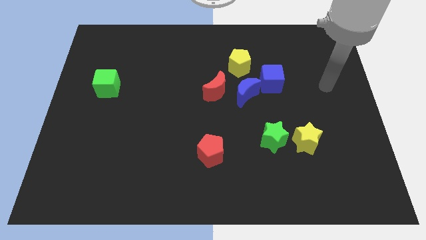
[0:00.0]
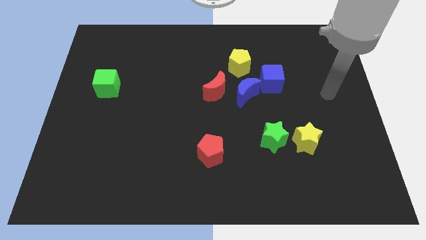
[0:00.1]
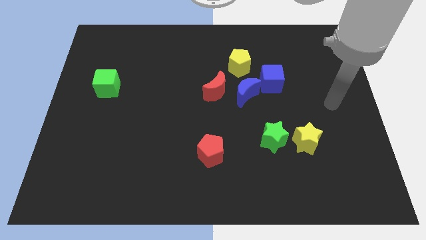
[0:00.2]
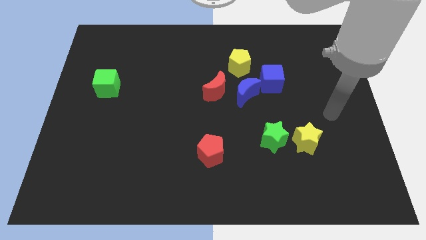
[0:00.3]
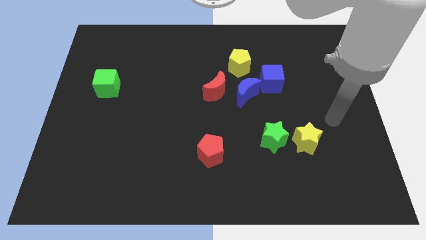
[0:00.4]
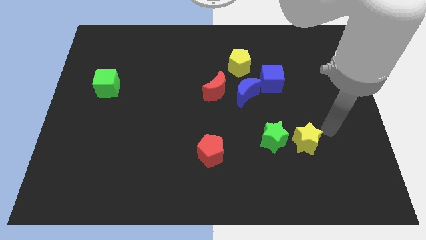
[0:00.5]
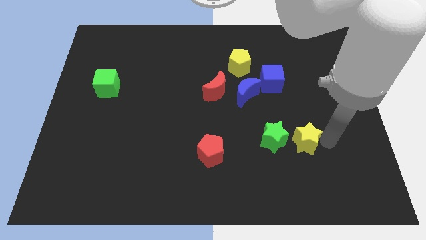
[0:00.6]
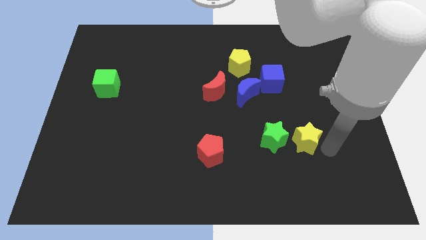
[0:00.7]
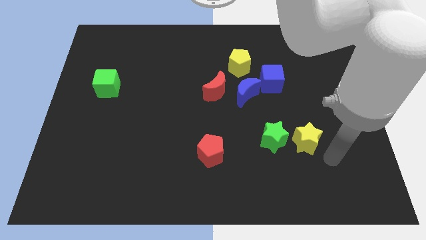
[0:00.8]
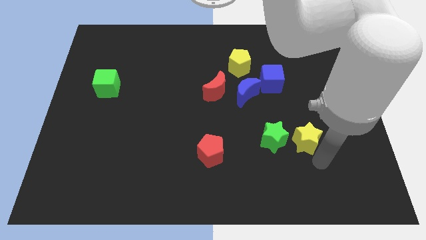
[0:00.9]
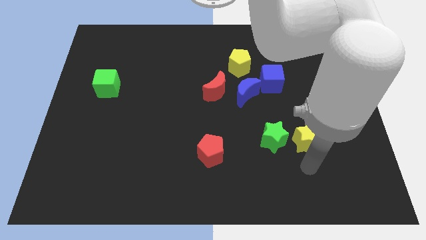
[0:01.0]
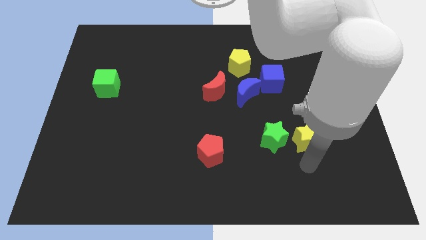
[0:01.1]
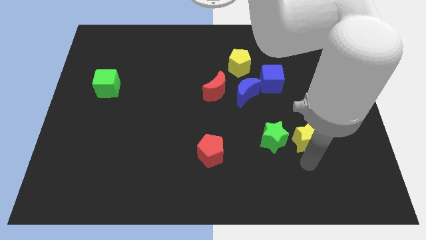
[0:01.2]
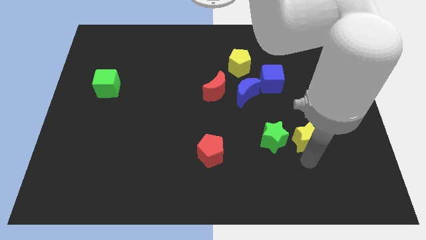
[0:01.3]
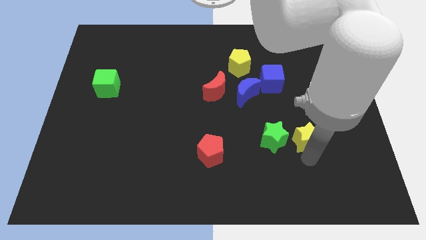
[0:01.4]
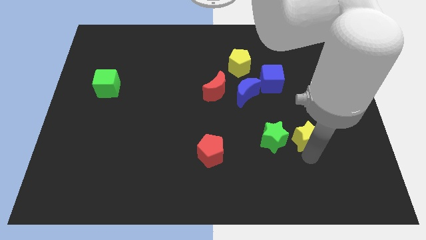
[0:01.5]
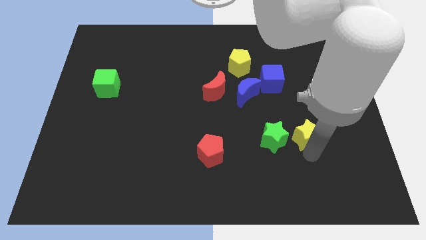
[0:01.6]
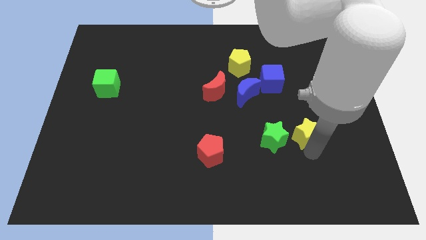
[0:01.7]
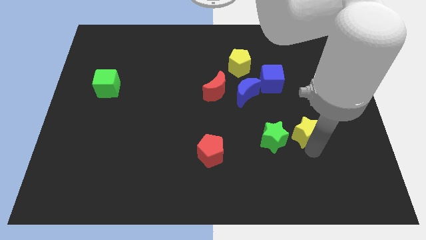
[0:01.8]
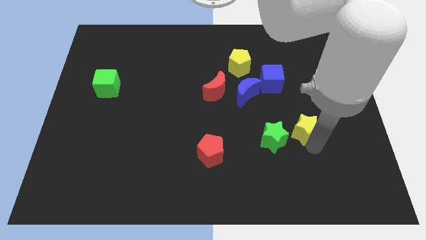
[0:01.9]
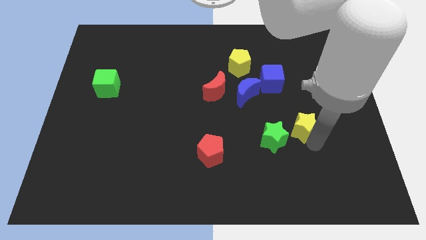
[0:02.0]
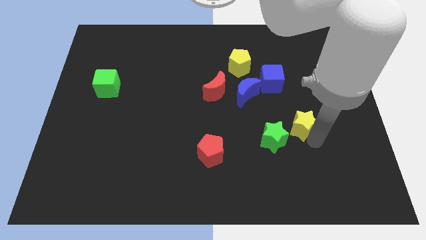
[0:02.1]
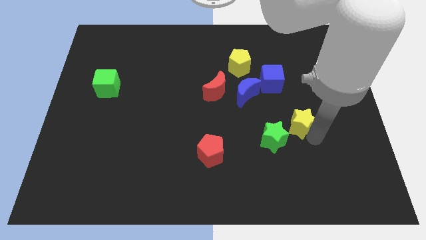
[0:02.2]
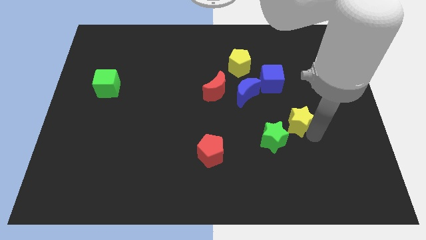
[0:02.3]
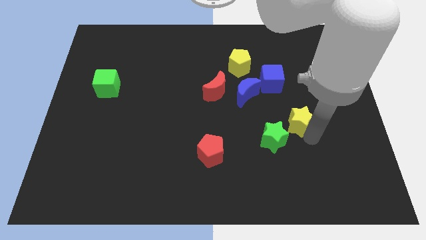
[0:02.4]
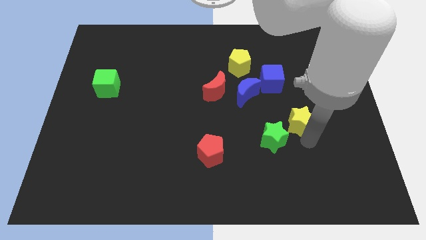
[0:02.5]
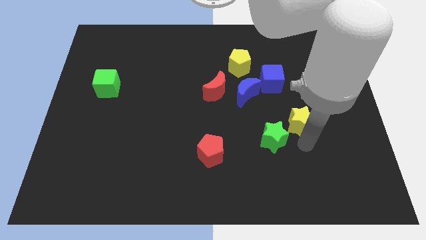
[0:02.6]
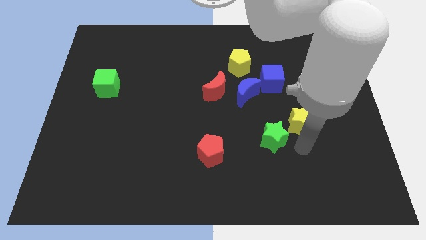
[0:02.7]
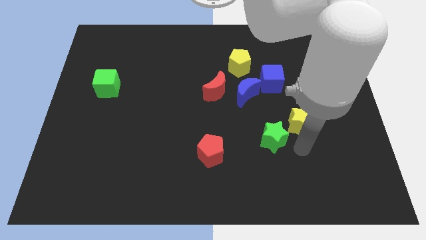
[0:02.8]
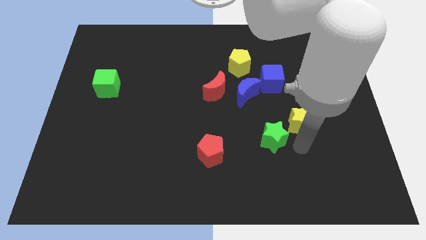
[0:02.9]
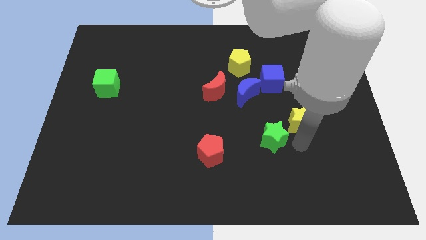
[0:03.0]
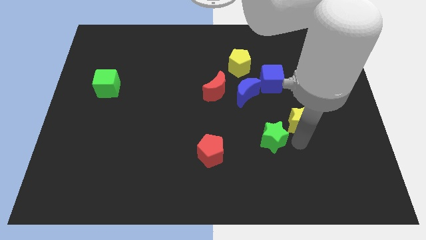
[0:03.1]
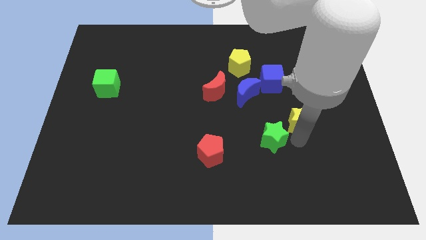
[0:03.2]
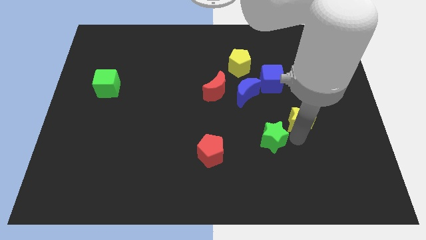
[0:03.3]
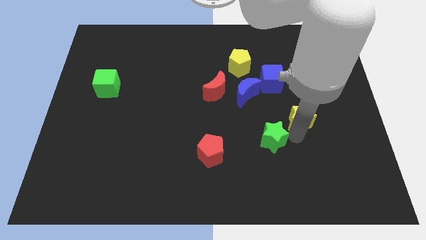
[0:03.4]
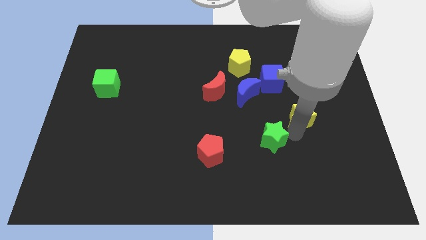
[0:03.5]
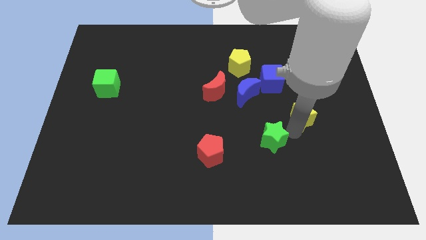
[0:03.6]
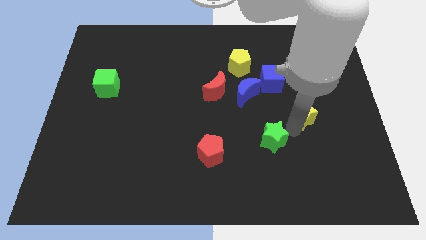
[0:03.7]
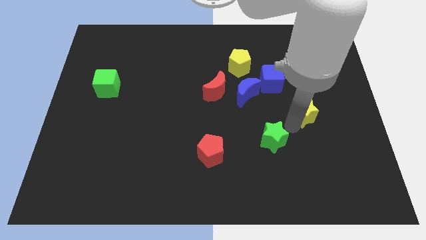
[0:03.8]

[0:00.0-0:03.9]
slightly move the yellow star upwards

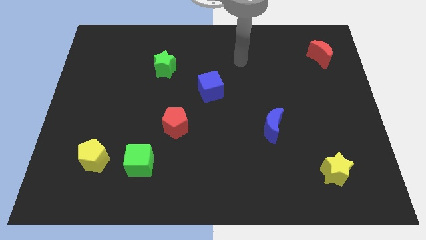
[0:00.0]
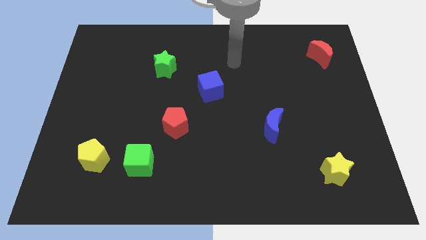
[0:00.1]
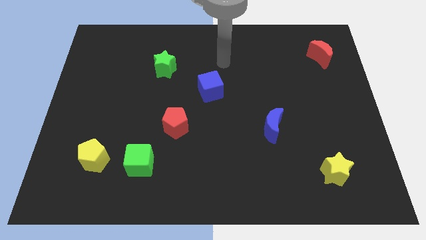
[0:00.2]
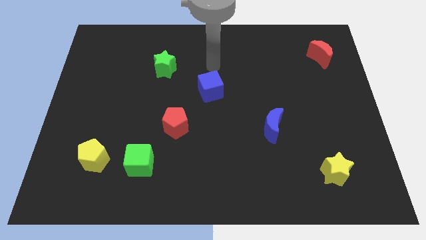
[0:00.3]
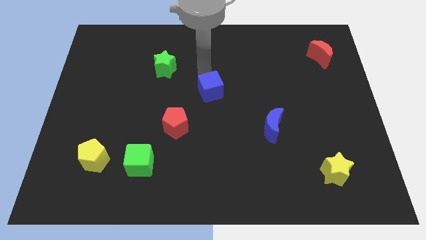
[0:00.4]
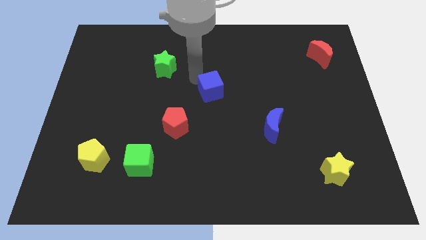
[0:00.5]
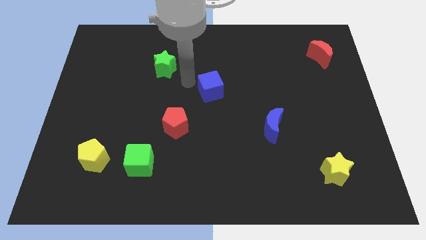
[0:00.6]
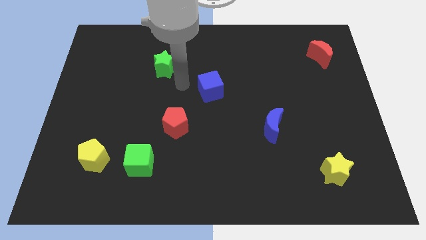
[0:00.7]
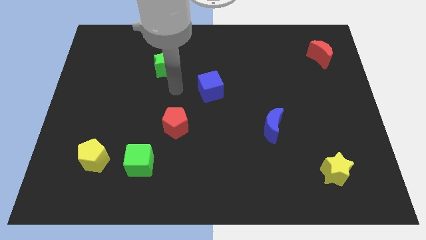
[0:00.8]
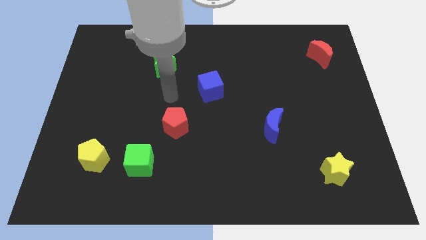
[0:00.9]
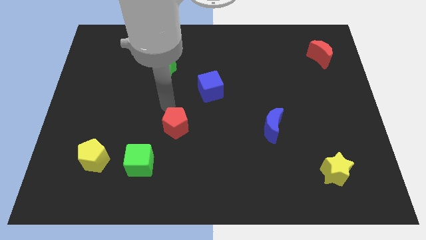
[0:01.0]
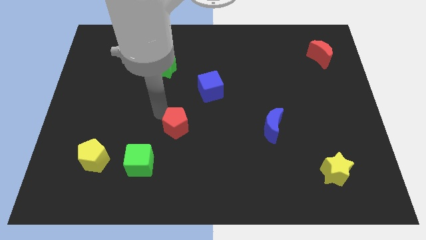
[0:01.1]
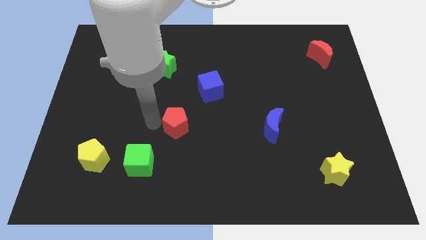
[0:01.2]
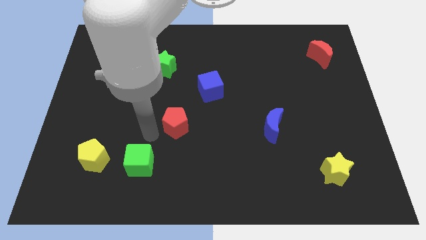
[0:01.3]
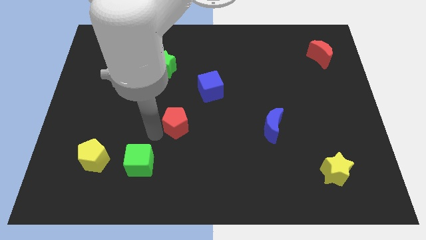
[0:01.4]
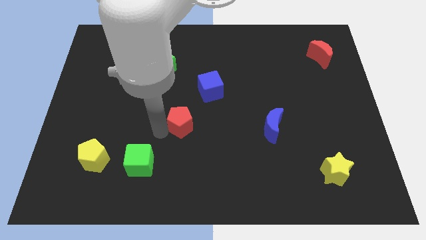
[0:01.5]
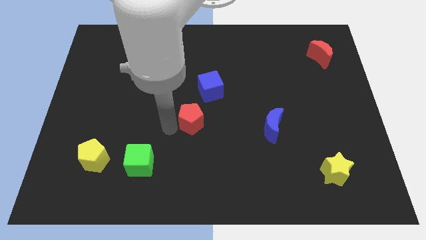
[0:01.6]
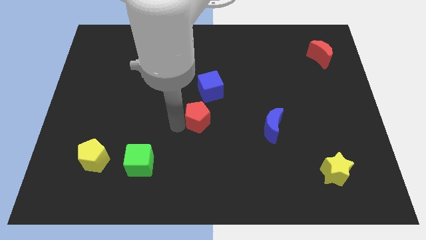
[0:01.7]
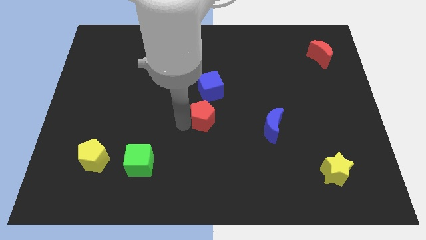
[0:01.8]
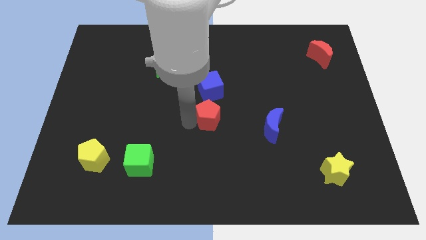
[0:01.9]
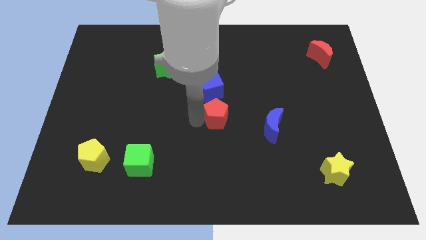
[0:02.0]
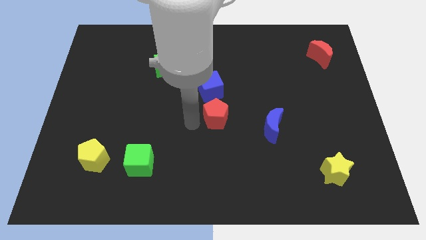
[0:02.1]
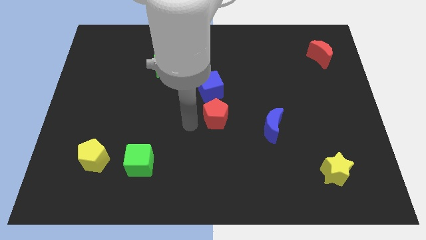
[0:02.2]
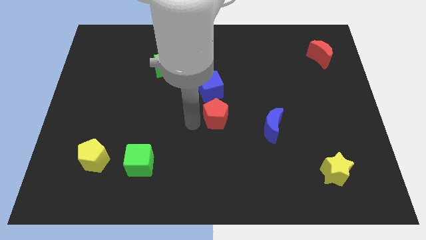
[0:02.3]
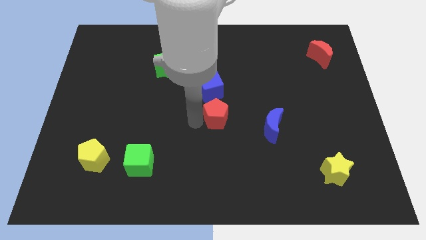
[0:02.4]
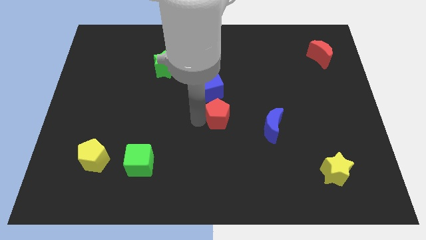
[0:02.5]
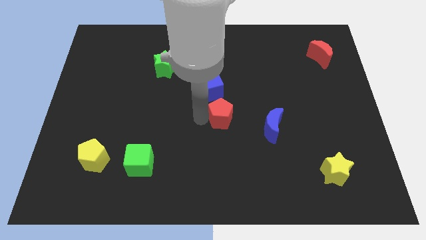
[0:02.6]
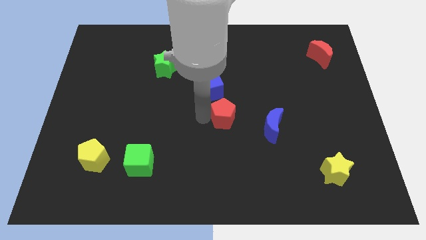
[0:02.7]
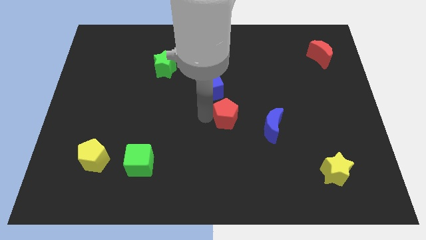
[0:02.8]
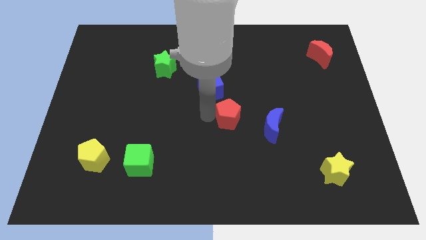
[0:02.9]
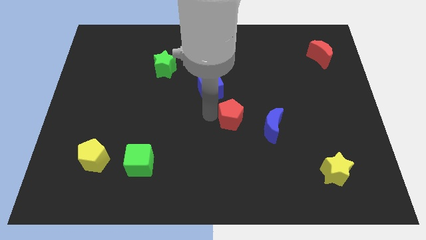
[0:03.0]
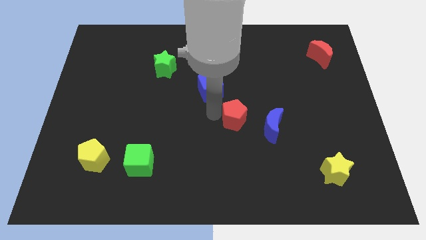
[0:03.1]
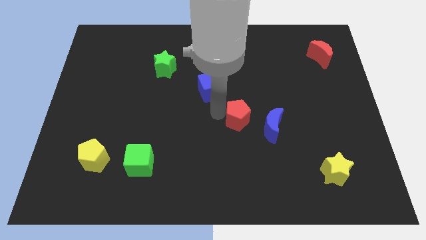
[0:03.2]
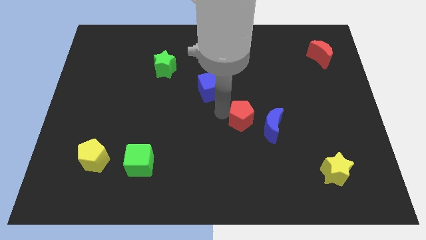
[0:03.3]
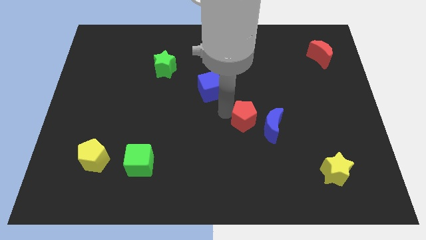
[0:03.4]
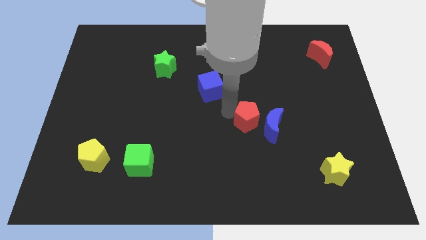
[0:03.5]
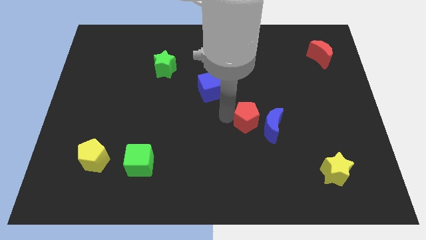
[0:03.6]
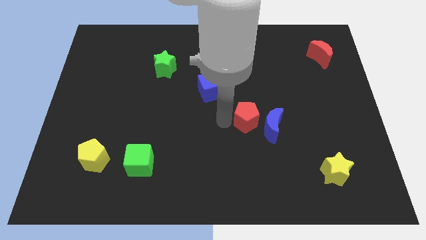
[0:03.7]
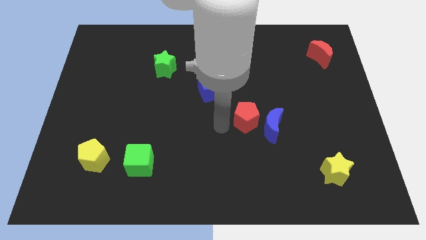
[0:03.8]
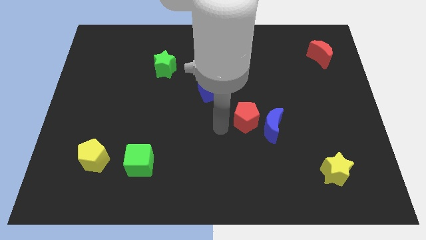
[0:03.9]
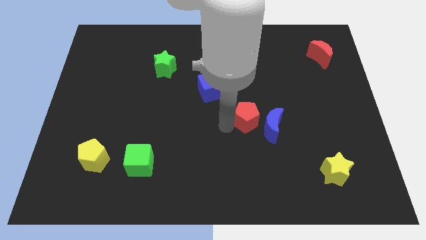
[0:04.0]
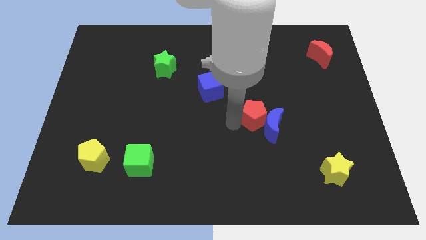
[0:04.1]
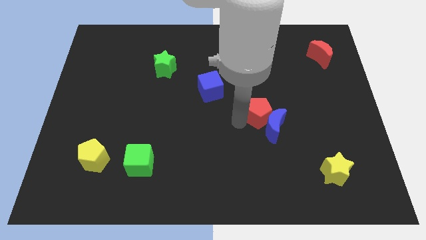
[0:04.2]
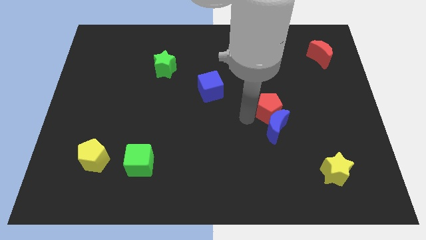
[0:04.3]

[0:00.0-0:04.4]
move the red pentagon right

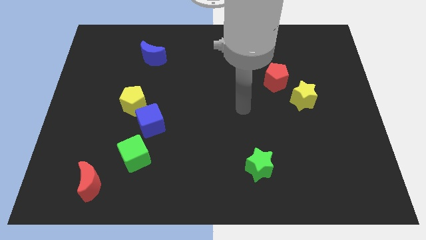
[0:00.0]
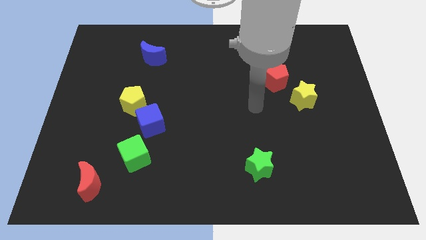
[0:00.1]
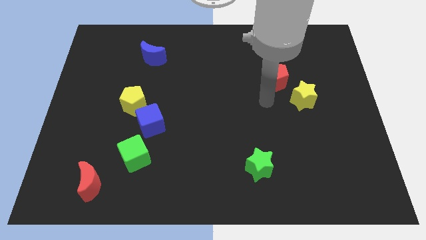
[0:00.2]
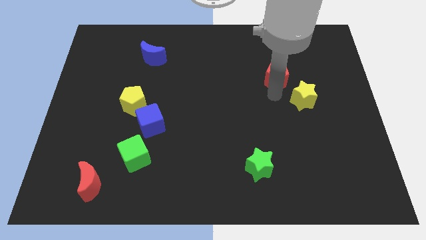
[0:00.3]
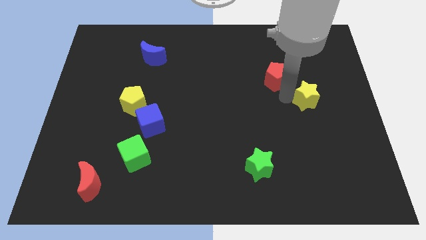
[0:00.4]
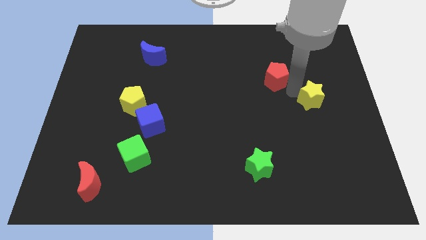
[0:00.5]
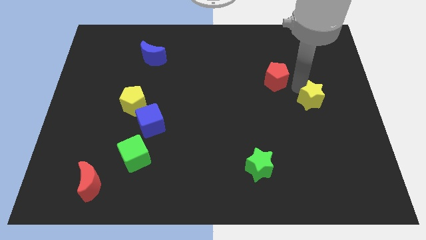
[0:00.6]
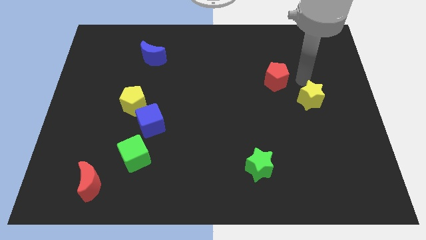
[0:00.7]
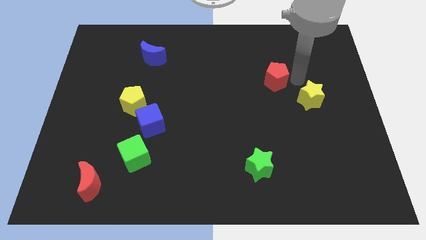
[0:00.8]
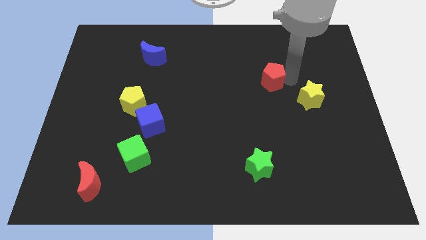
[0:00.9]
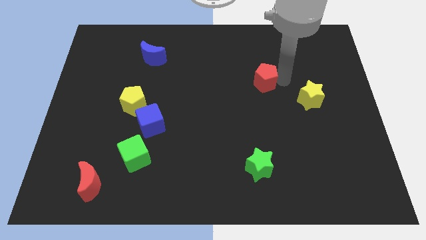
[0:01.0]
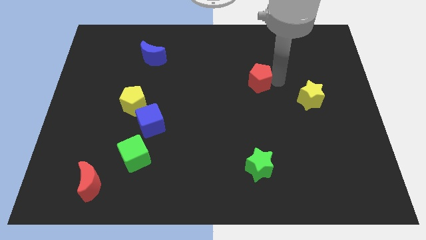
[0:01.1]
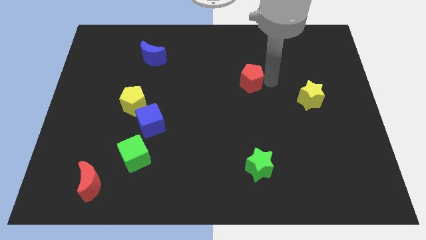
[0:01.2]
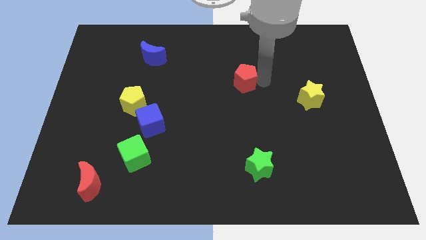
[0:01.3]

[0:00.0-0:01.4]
slide the red pentagon slightly left
